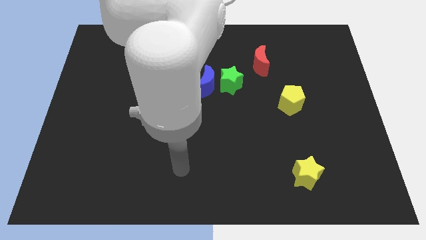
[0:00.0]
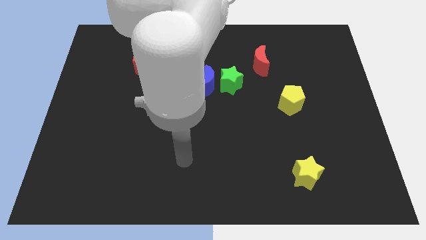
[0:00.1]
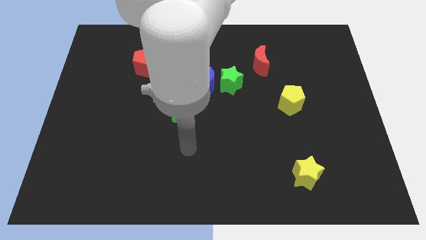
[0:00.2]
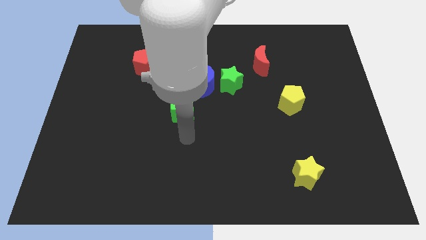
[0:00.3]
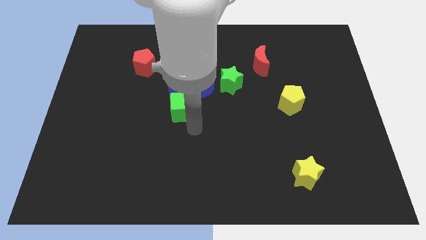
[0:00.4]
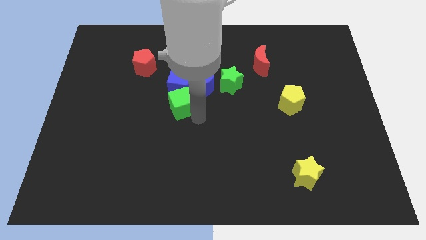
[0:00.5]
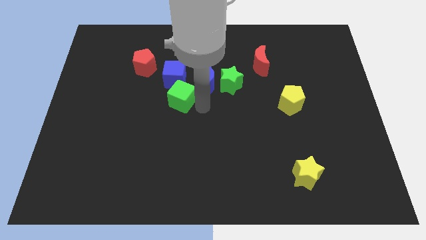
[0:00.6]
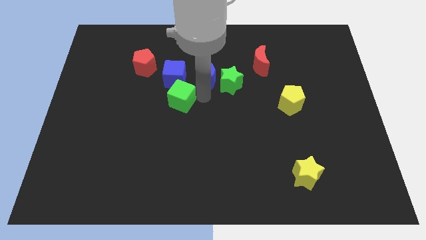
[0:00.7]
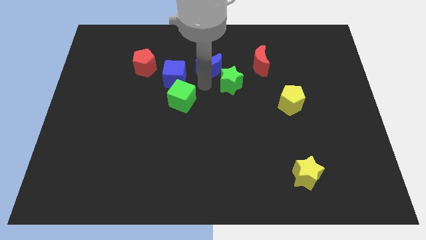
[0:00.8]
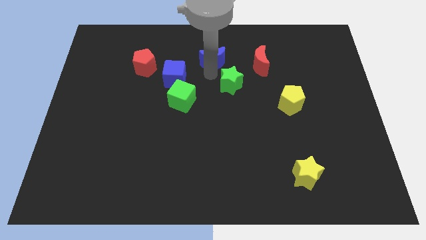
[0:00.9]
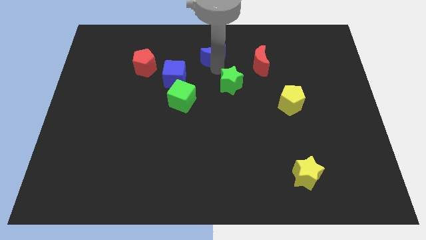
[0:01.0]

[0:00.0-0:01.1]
separate the green star from the blue moon

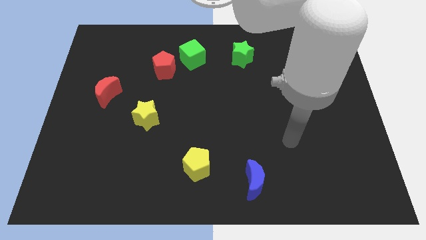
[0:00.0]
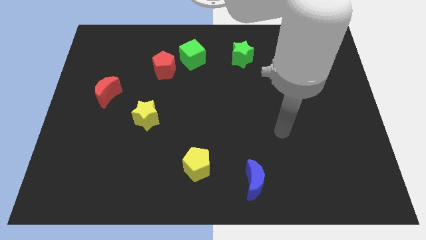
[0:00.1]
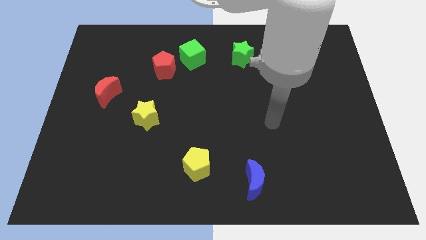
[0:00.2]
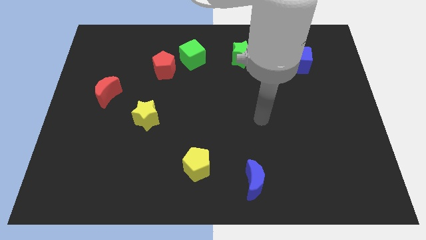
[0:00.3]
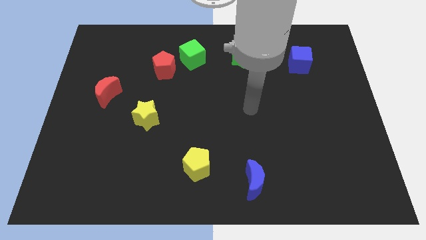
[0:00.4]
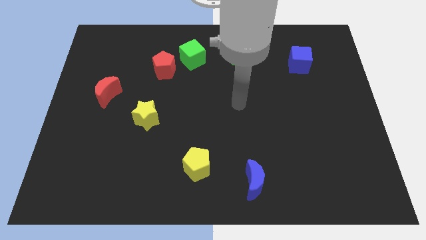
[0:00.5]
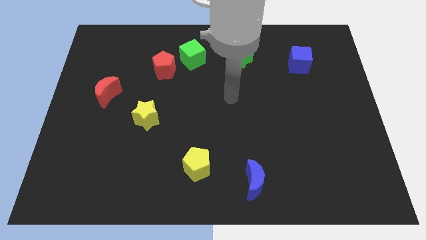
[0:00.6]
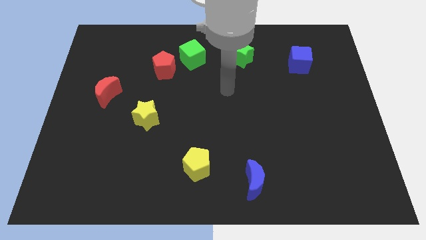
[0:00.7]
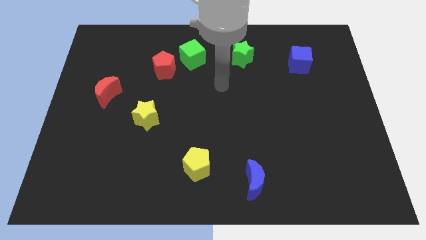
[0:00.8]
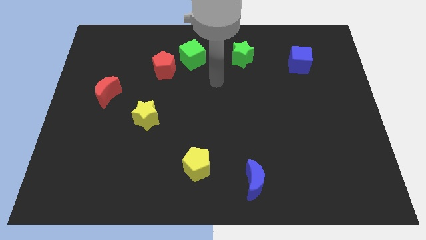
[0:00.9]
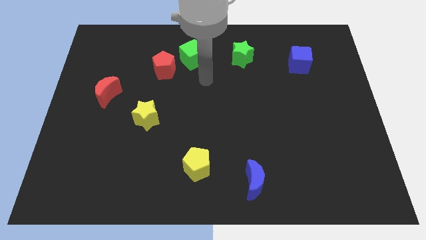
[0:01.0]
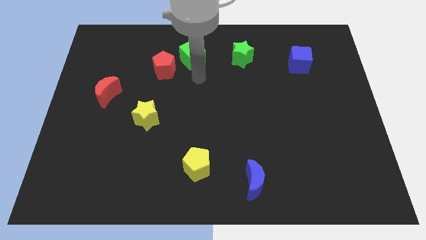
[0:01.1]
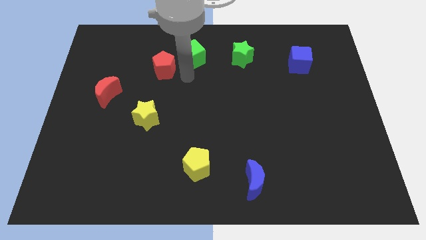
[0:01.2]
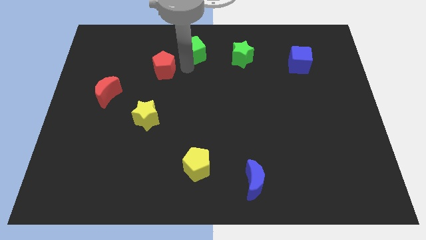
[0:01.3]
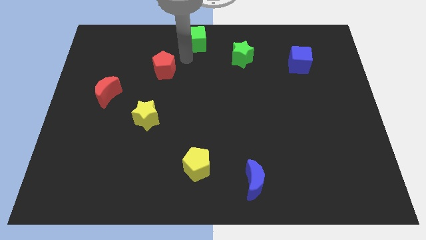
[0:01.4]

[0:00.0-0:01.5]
move the red pentagon away from the green cube

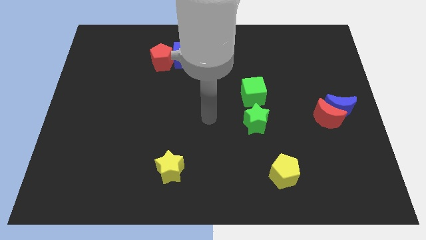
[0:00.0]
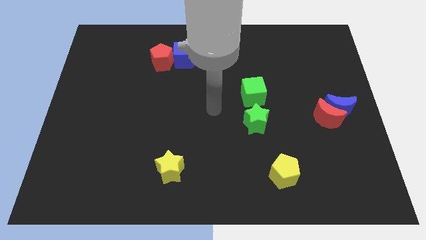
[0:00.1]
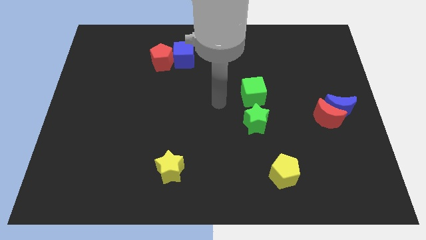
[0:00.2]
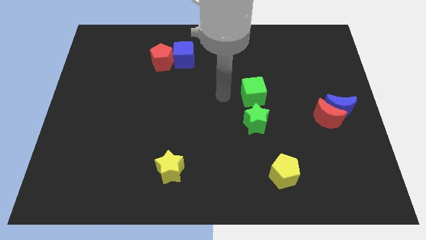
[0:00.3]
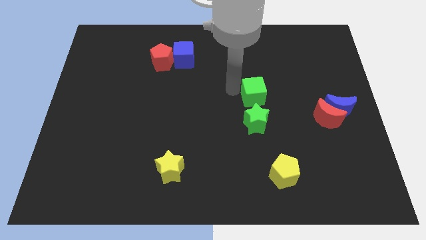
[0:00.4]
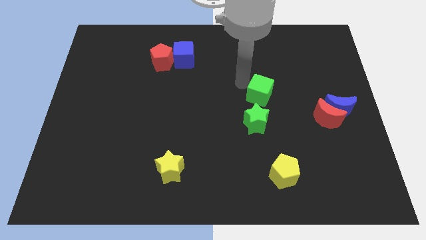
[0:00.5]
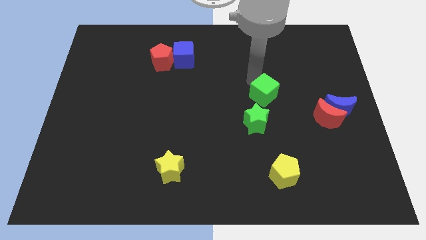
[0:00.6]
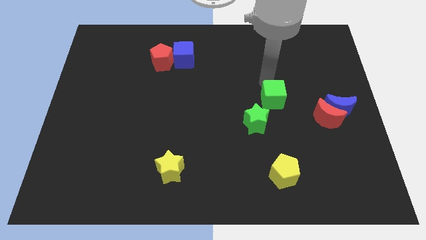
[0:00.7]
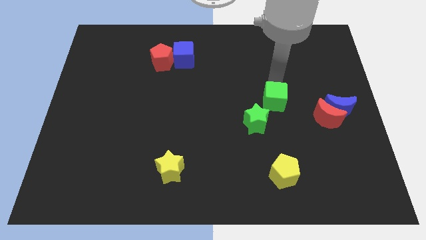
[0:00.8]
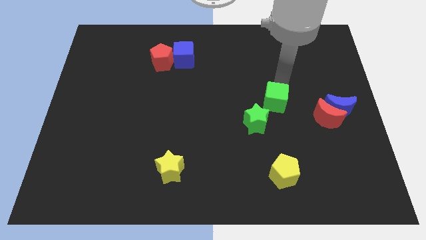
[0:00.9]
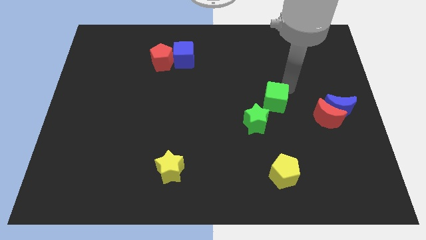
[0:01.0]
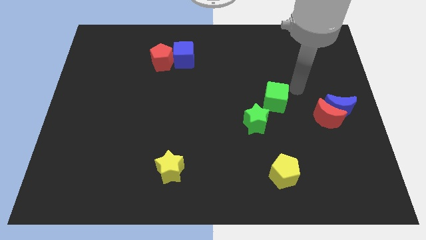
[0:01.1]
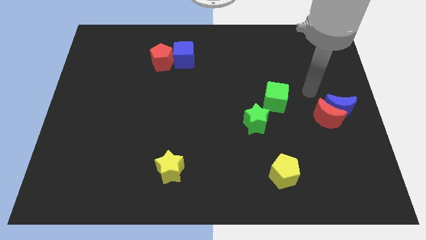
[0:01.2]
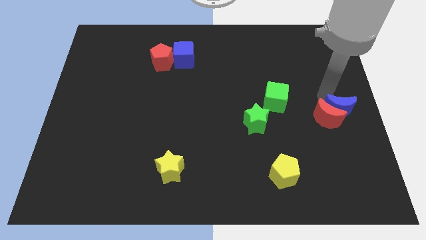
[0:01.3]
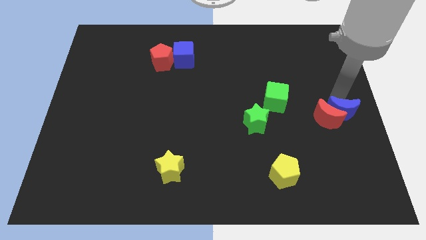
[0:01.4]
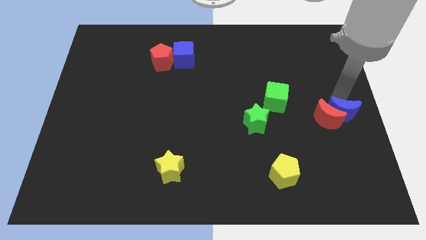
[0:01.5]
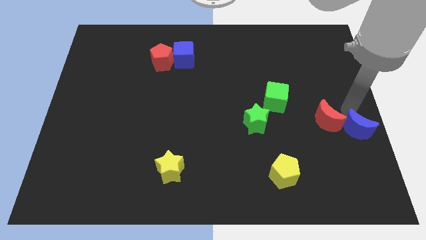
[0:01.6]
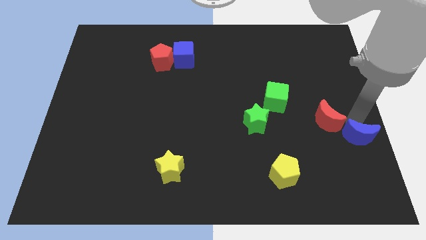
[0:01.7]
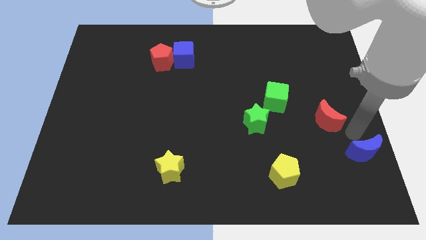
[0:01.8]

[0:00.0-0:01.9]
separate the red moon from the blue moon

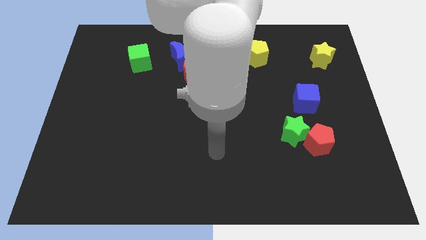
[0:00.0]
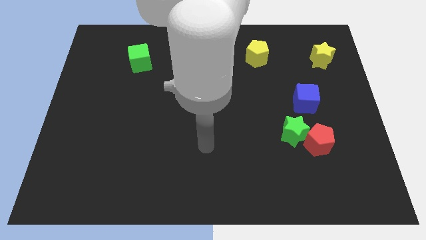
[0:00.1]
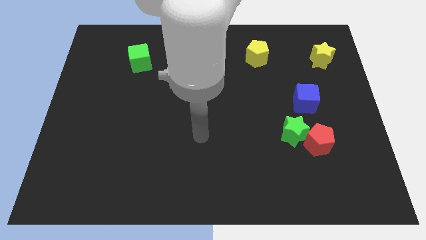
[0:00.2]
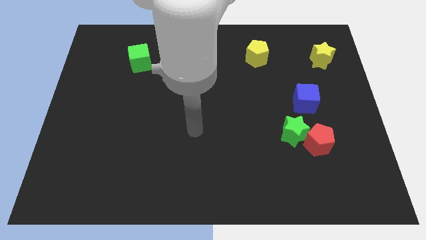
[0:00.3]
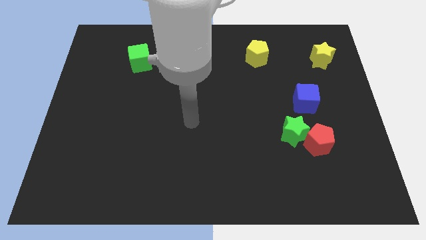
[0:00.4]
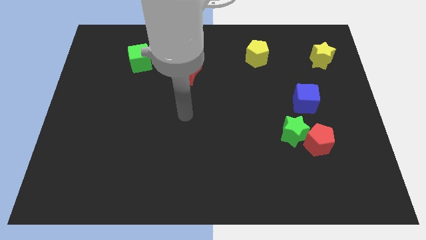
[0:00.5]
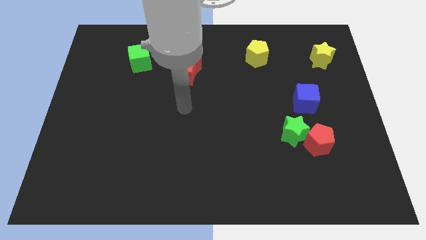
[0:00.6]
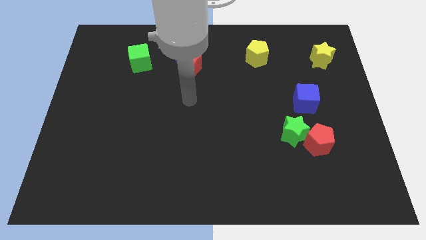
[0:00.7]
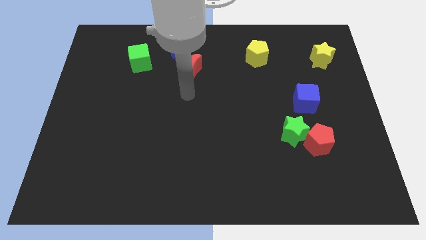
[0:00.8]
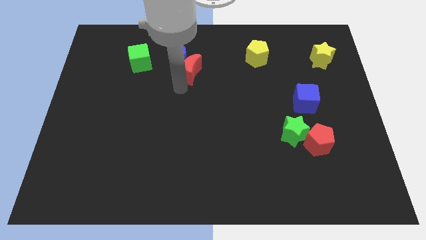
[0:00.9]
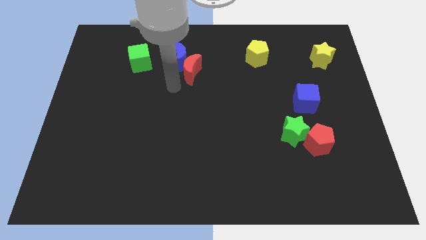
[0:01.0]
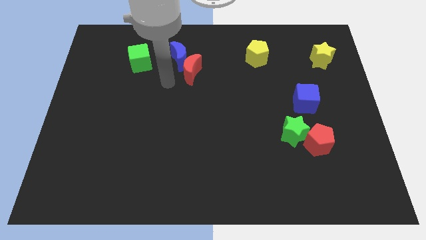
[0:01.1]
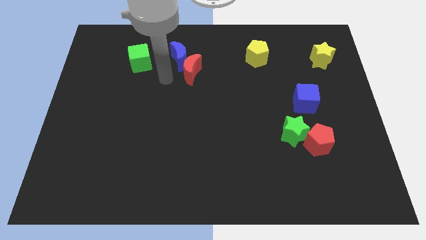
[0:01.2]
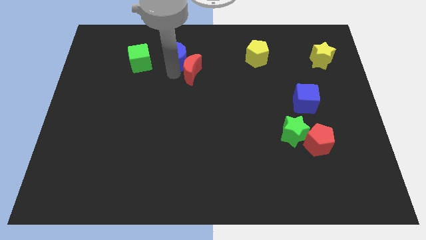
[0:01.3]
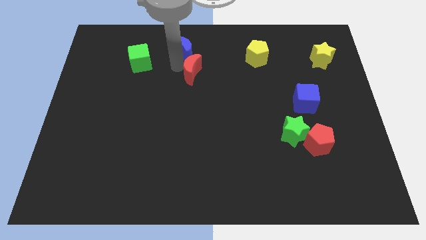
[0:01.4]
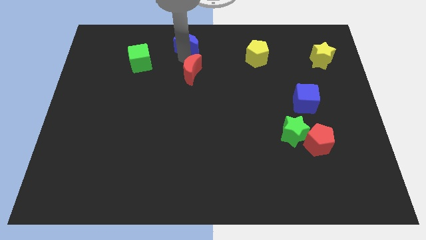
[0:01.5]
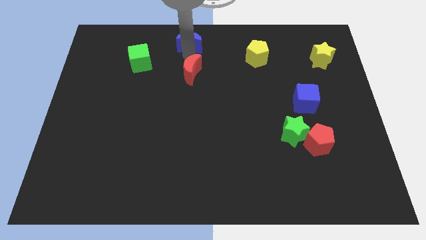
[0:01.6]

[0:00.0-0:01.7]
move the red moon away from the blue moon

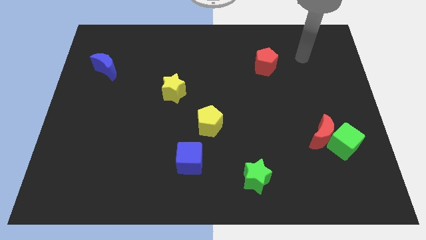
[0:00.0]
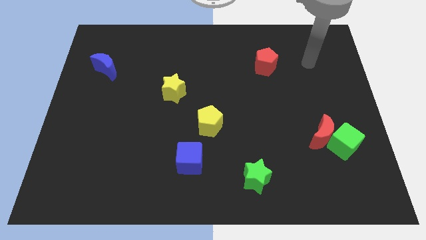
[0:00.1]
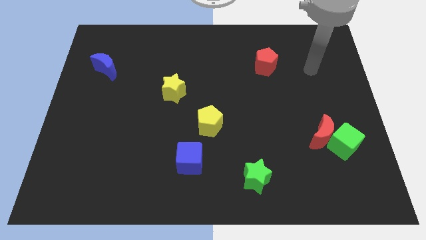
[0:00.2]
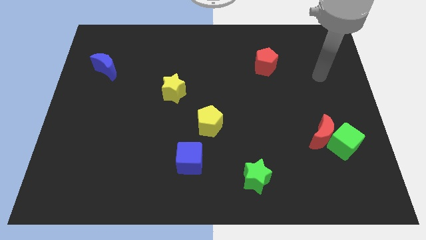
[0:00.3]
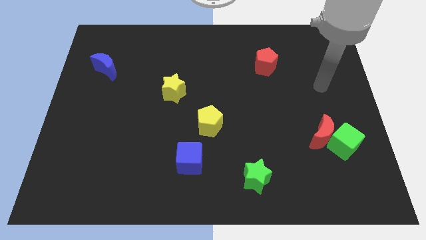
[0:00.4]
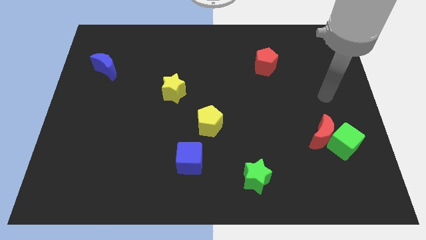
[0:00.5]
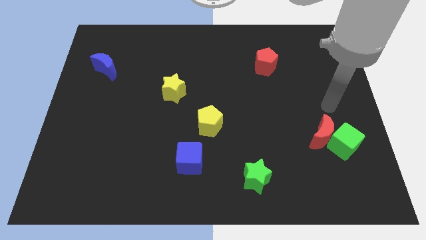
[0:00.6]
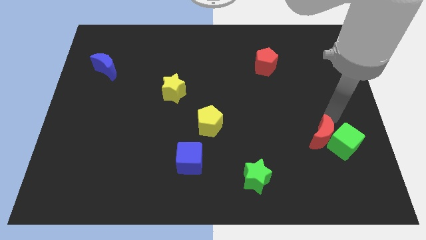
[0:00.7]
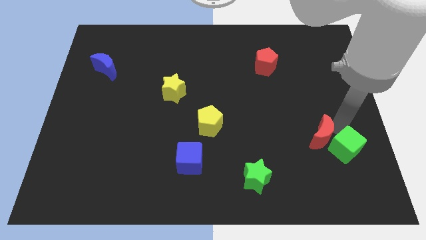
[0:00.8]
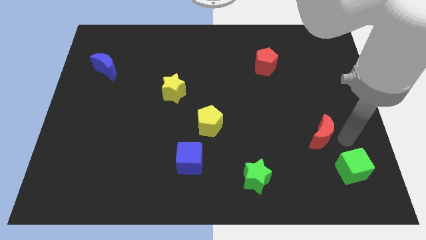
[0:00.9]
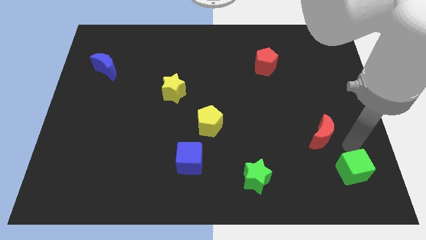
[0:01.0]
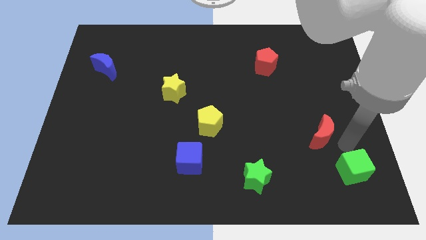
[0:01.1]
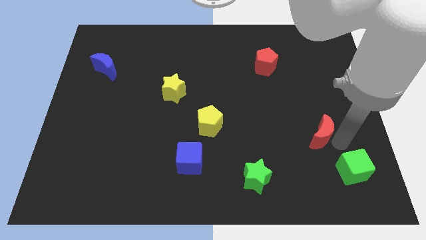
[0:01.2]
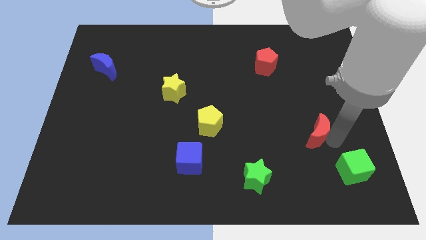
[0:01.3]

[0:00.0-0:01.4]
move the red moon away from the green cube

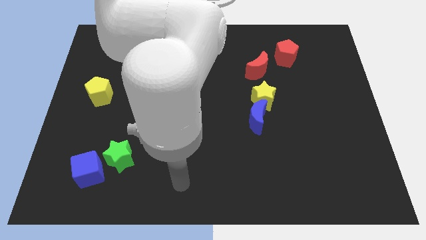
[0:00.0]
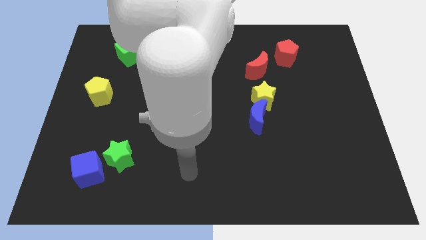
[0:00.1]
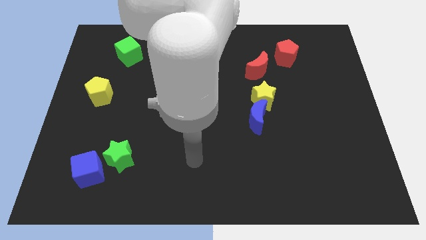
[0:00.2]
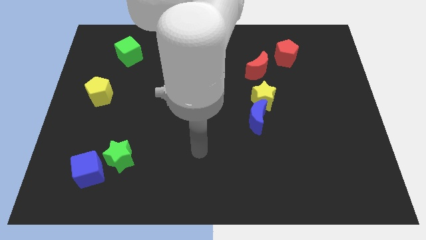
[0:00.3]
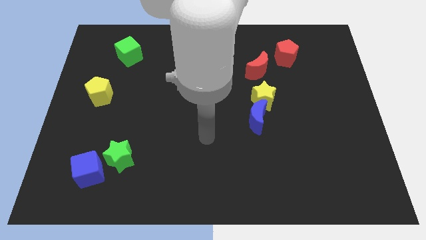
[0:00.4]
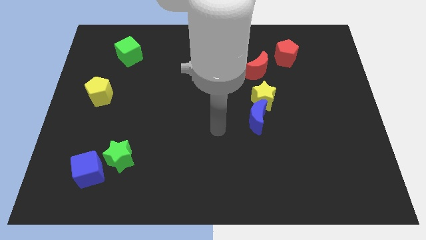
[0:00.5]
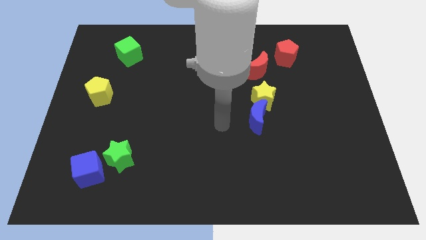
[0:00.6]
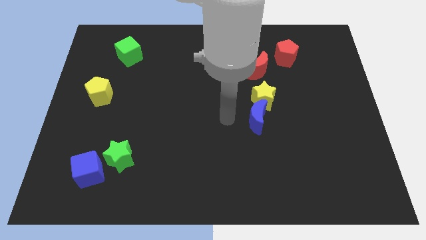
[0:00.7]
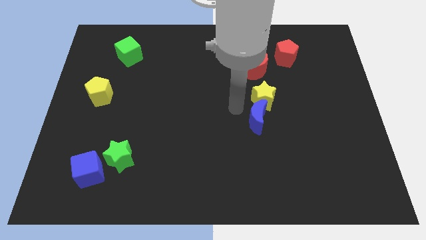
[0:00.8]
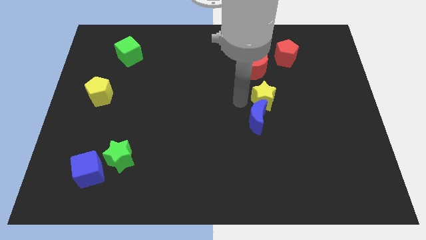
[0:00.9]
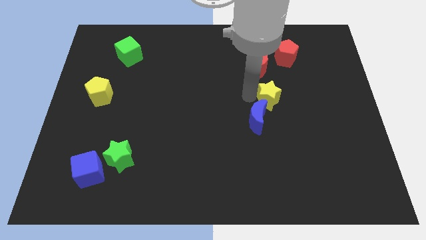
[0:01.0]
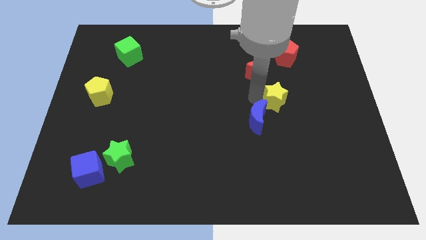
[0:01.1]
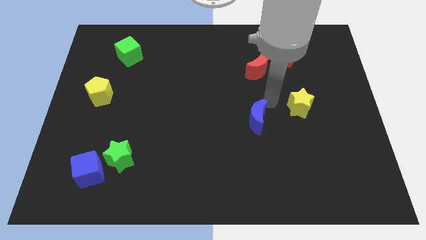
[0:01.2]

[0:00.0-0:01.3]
move the blue moon away from the yellow star

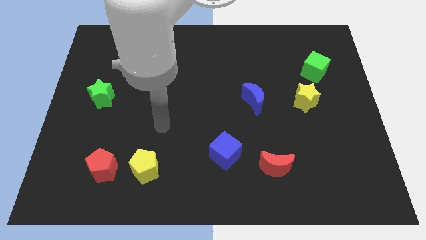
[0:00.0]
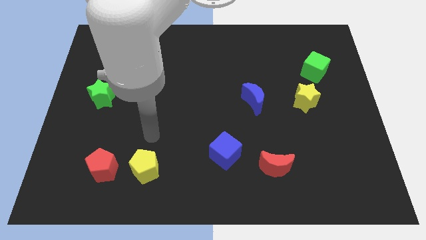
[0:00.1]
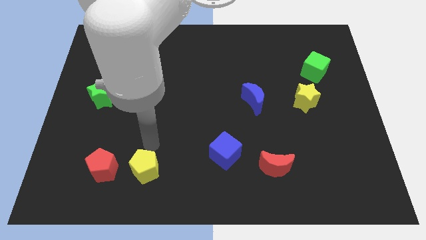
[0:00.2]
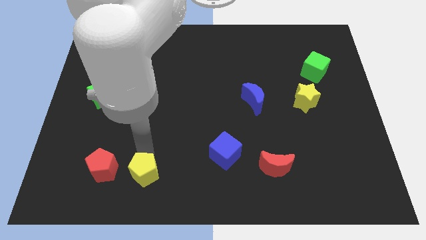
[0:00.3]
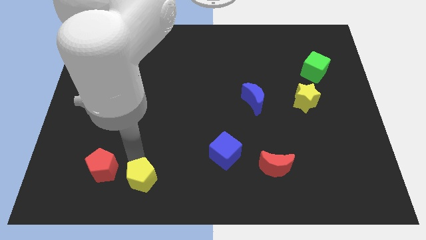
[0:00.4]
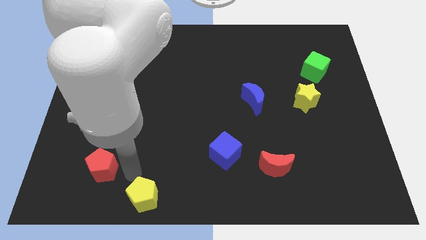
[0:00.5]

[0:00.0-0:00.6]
pull the red pentagon apart from the yellow pentagon
